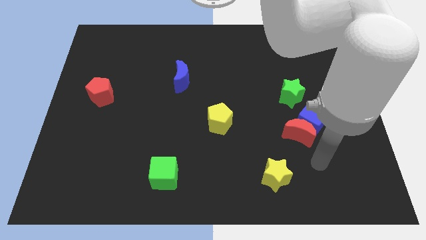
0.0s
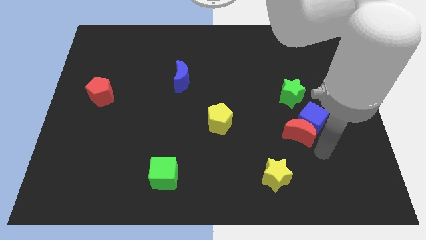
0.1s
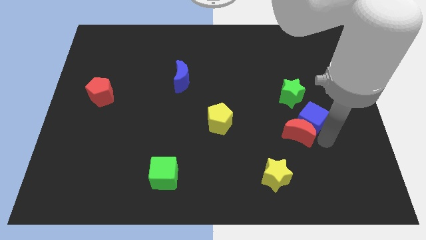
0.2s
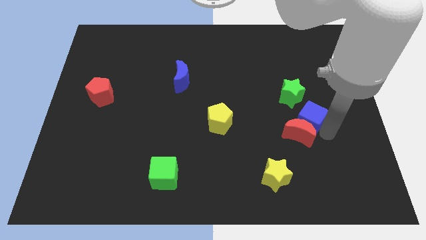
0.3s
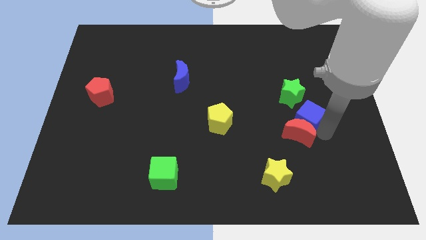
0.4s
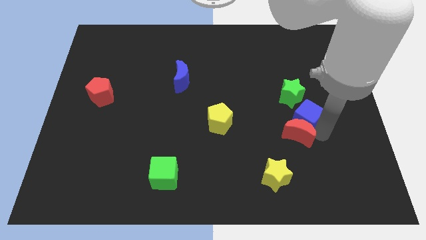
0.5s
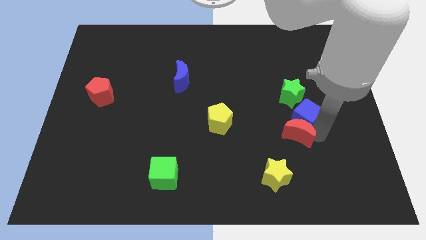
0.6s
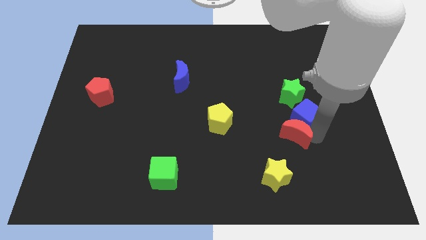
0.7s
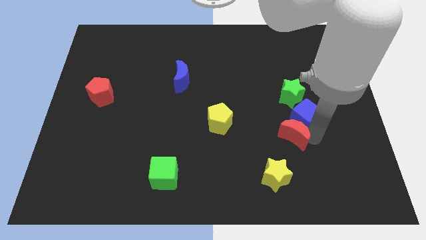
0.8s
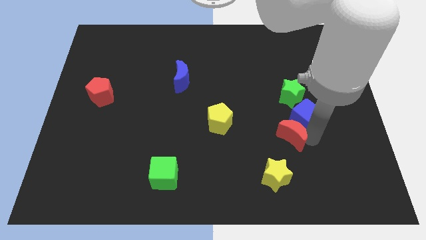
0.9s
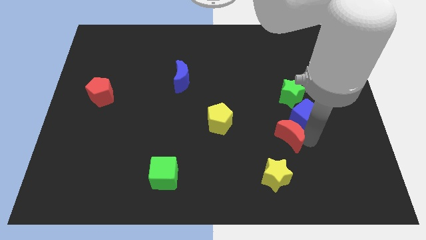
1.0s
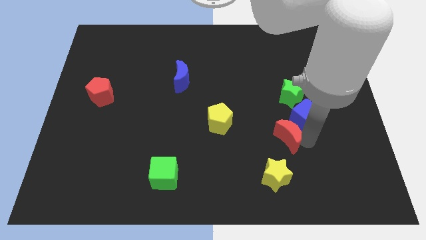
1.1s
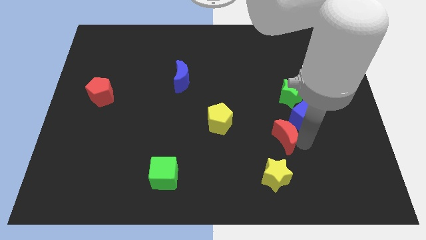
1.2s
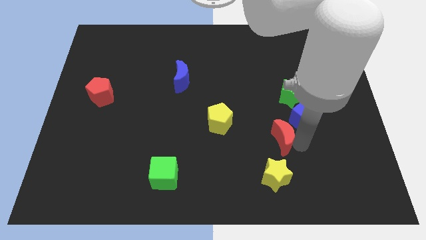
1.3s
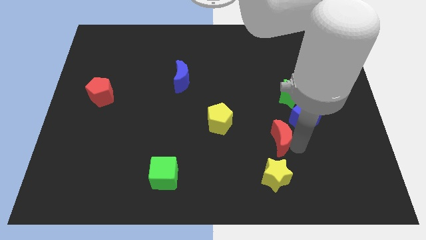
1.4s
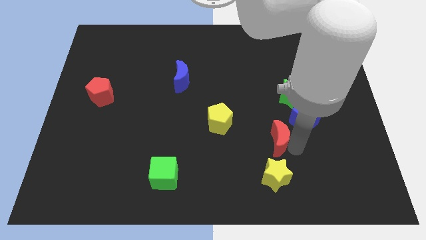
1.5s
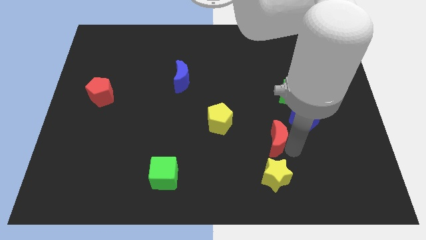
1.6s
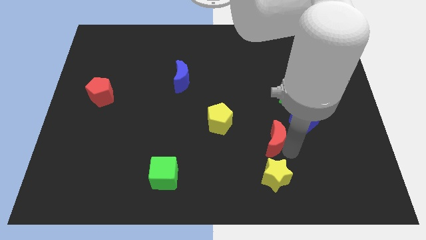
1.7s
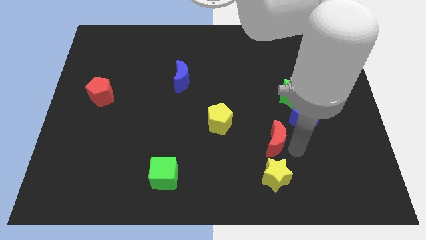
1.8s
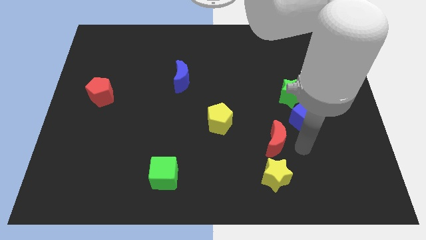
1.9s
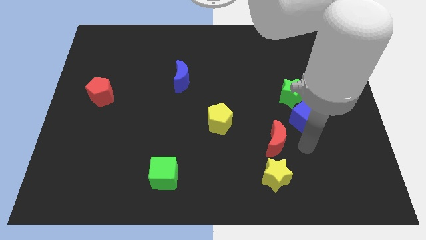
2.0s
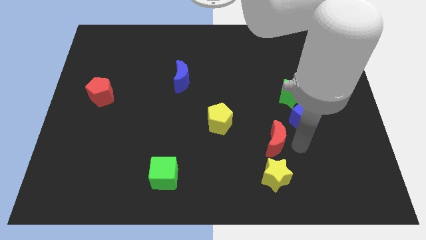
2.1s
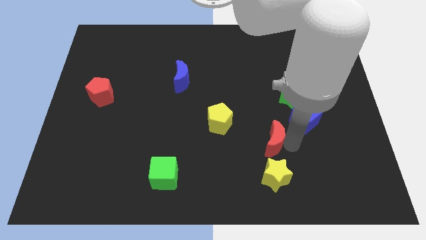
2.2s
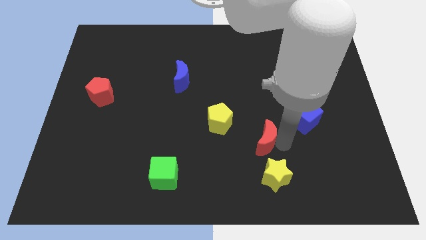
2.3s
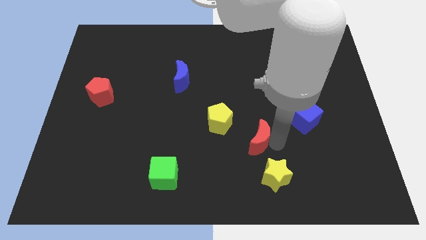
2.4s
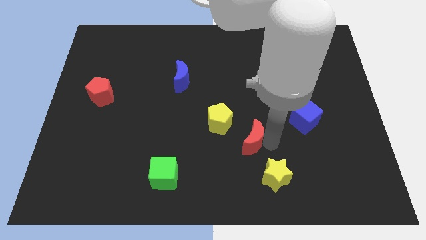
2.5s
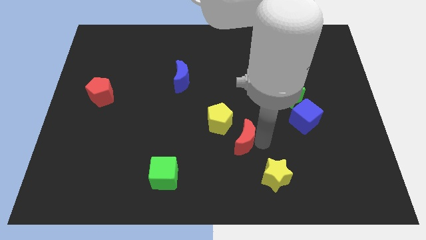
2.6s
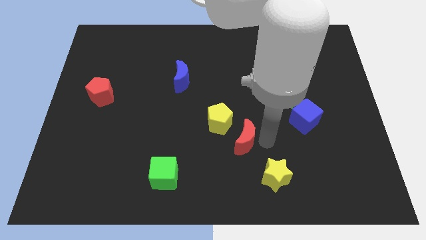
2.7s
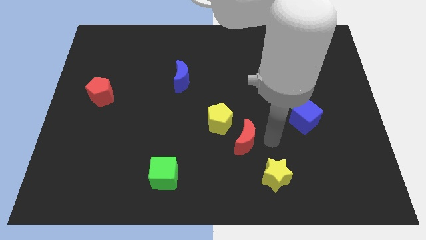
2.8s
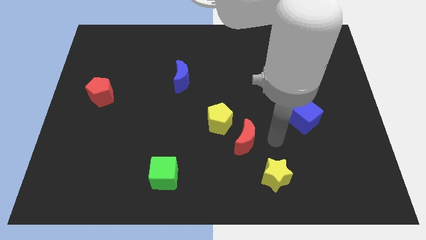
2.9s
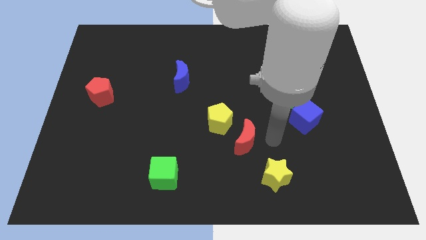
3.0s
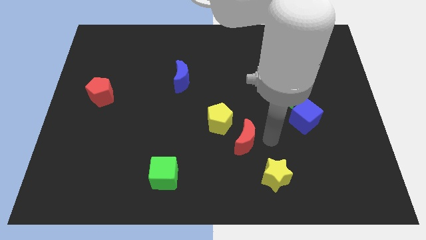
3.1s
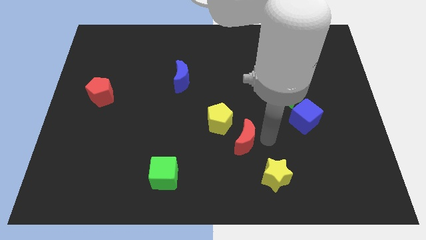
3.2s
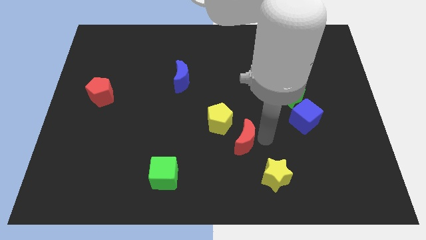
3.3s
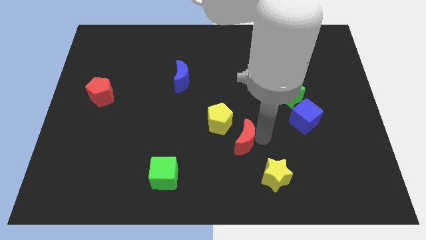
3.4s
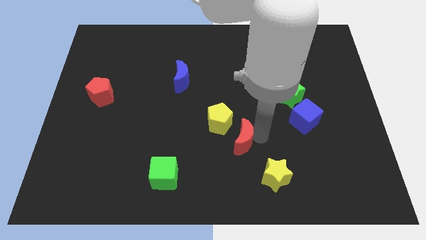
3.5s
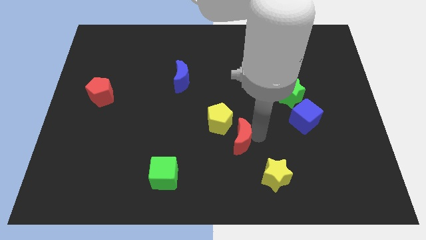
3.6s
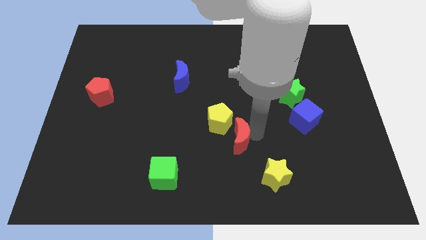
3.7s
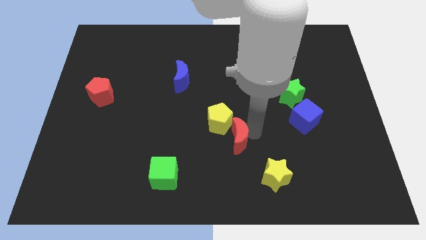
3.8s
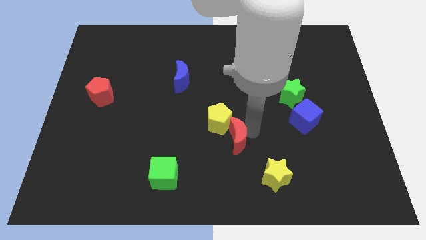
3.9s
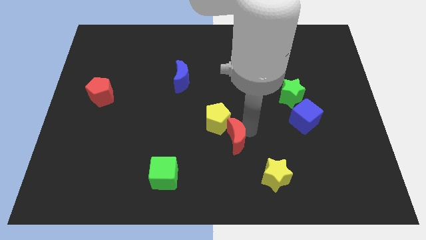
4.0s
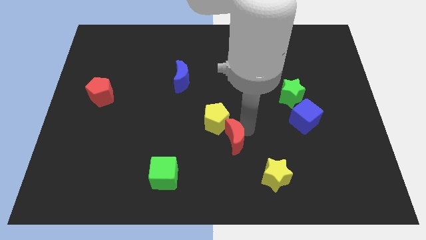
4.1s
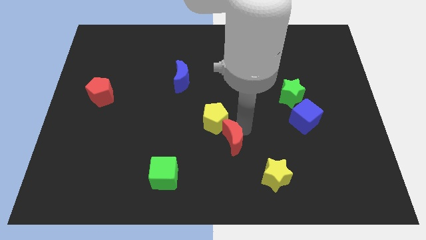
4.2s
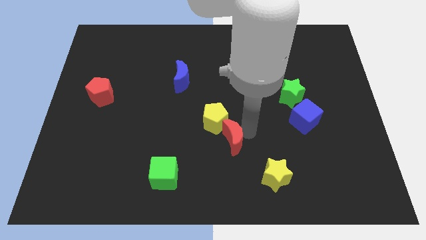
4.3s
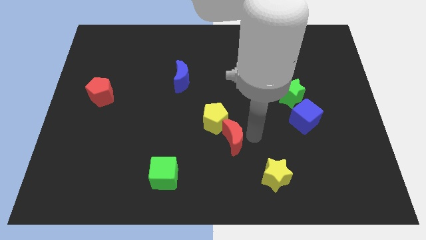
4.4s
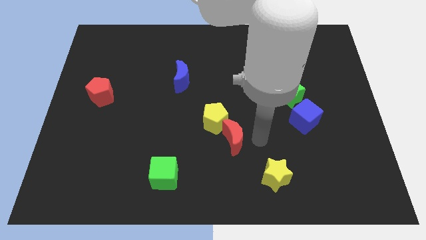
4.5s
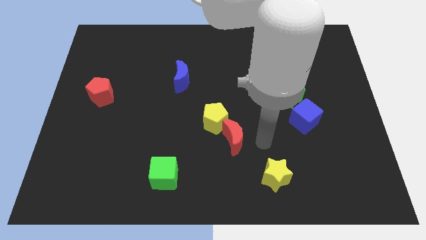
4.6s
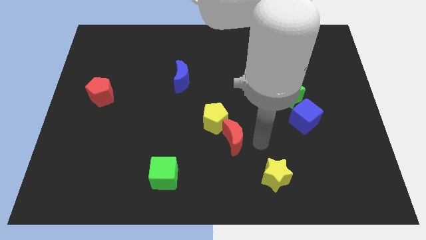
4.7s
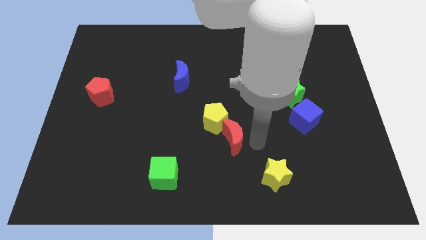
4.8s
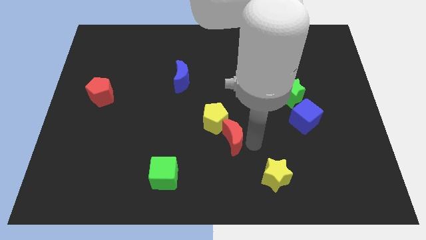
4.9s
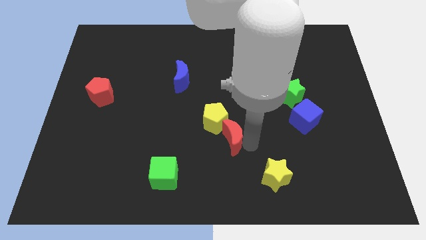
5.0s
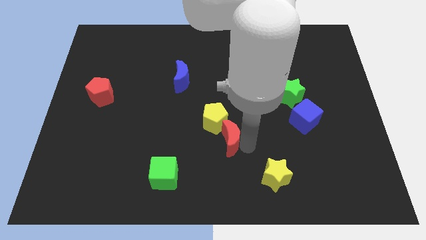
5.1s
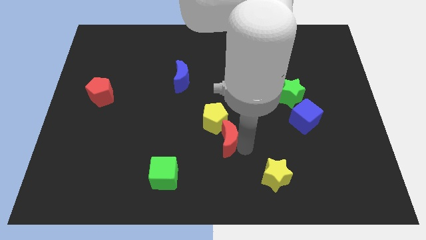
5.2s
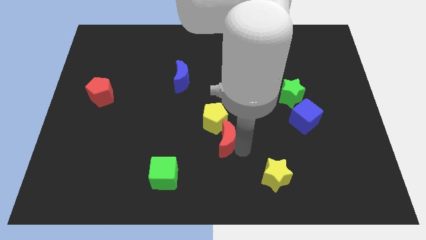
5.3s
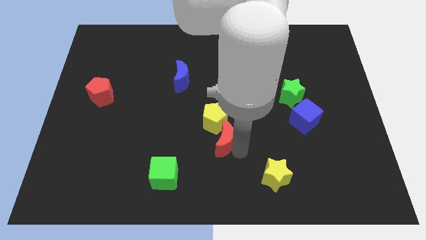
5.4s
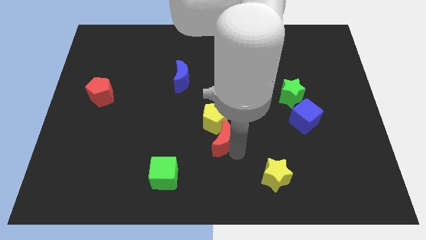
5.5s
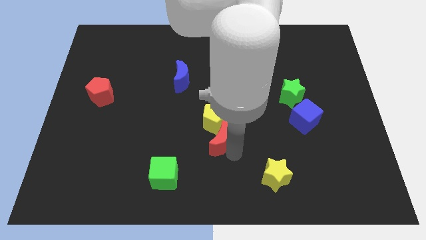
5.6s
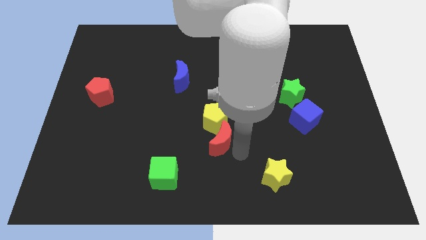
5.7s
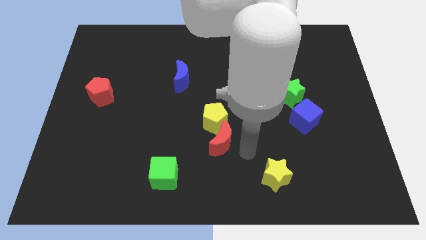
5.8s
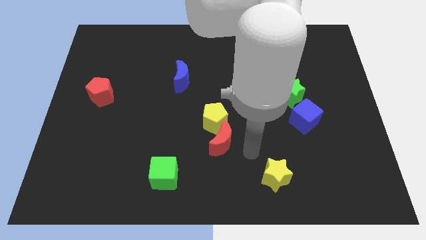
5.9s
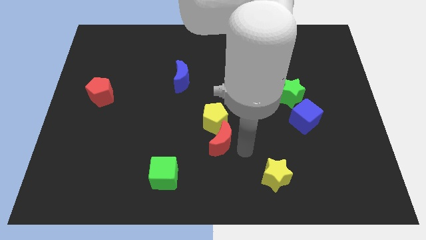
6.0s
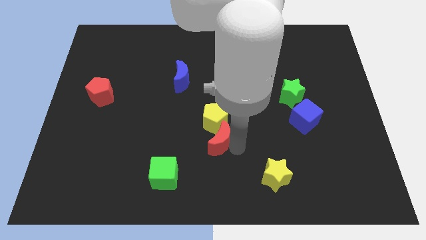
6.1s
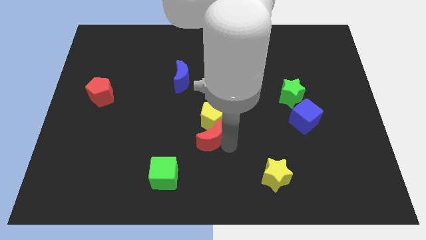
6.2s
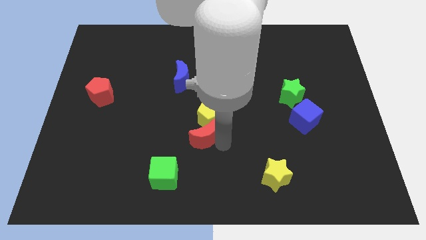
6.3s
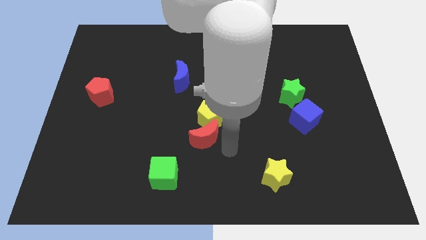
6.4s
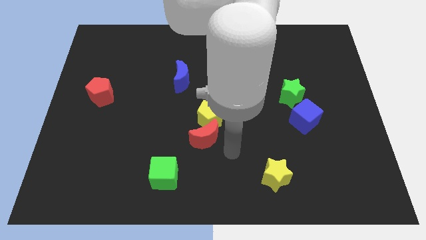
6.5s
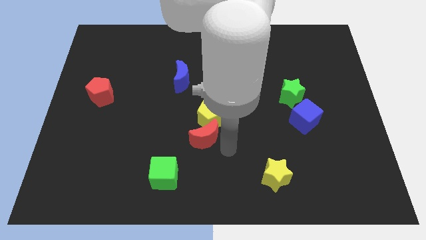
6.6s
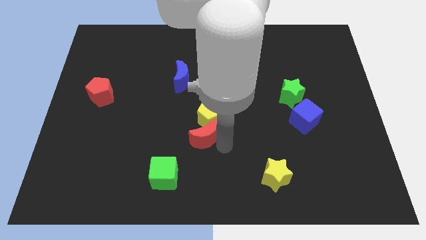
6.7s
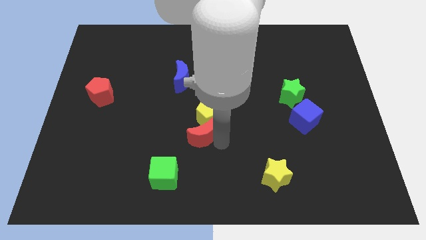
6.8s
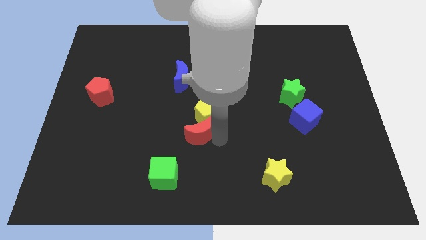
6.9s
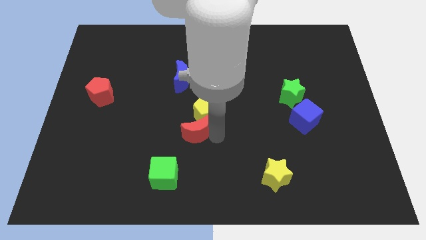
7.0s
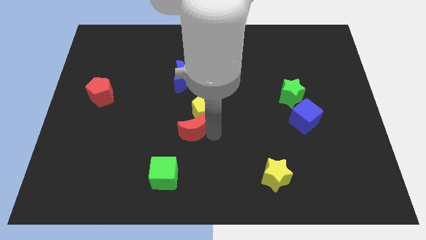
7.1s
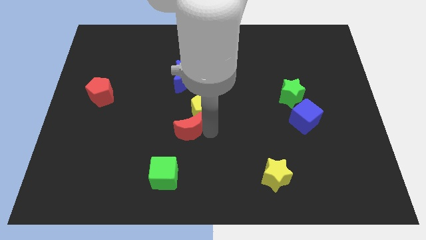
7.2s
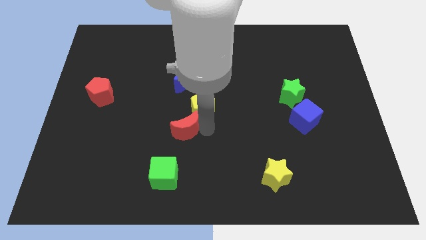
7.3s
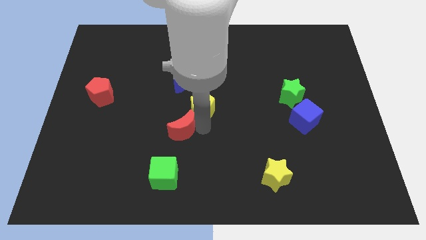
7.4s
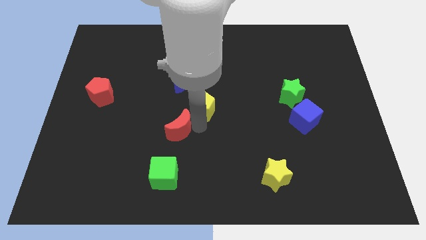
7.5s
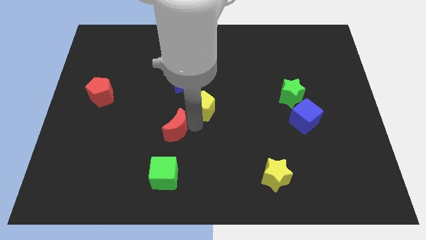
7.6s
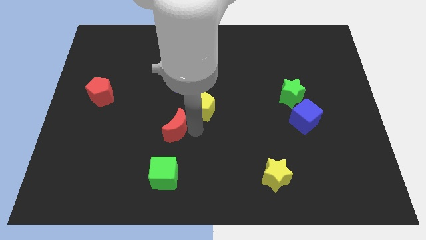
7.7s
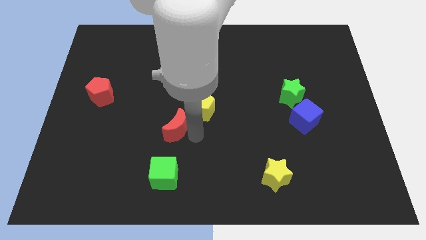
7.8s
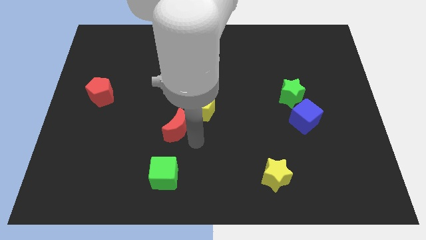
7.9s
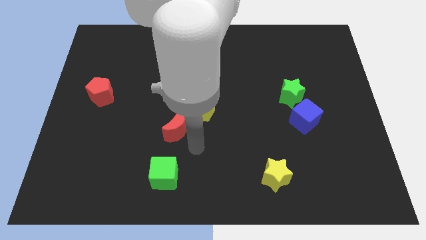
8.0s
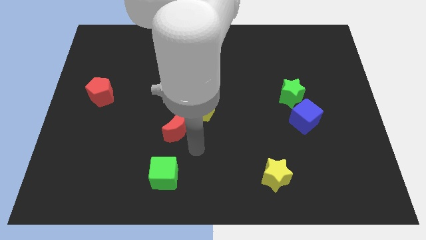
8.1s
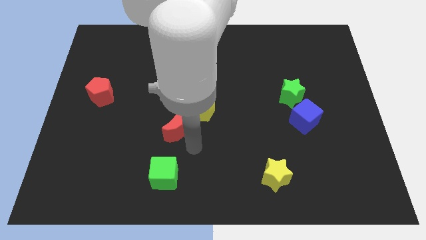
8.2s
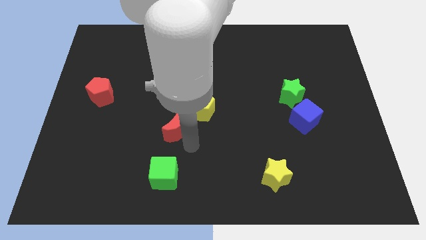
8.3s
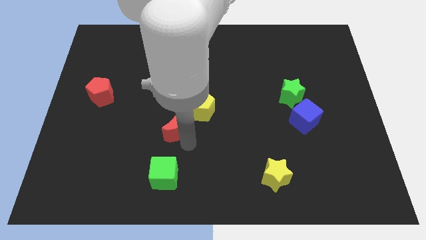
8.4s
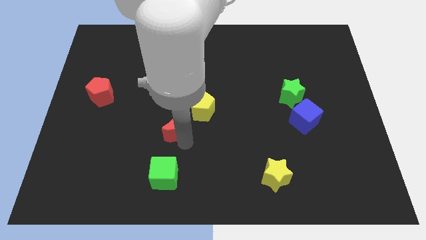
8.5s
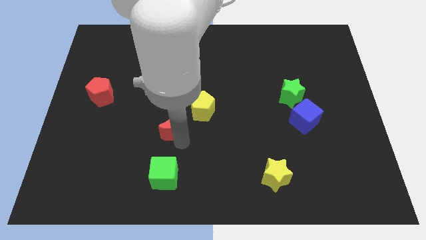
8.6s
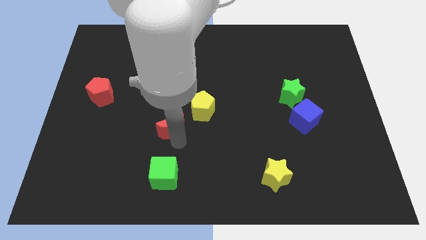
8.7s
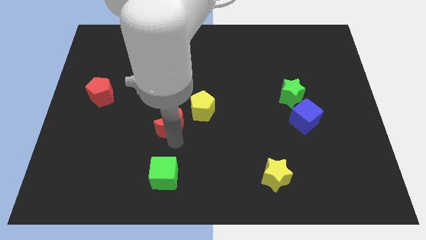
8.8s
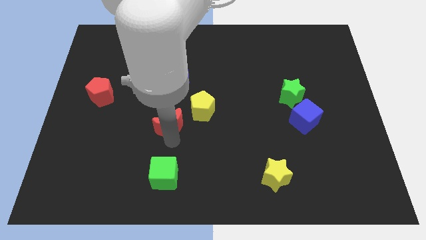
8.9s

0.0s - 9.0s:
move the red moon just left of the yellow pentagon
